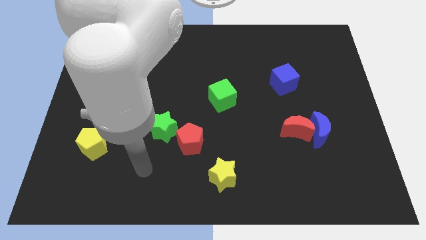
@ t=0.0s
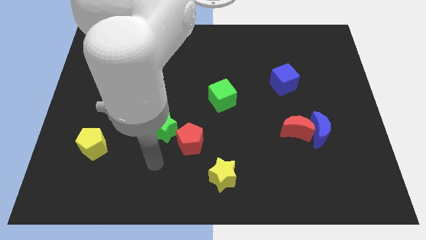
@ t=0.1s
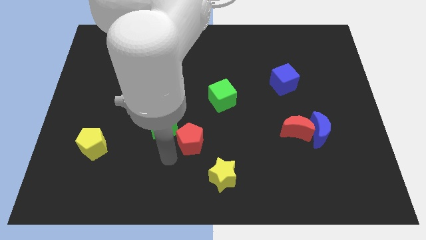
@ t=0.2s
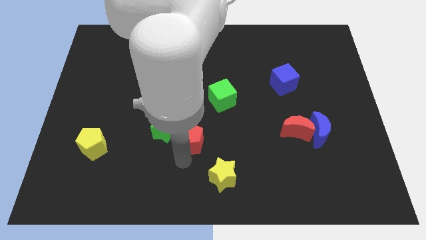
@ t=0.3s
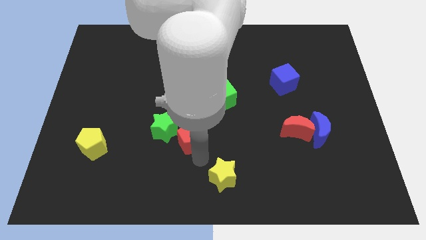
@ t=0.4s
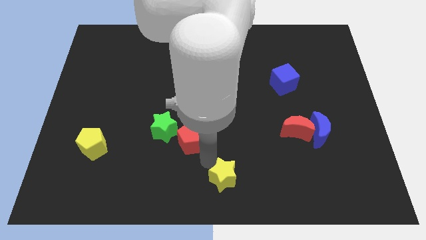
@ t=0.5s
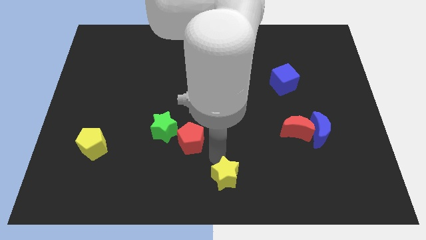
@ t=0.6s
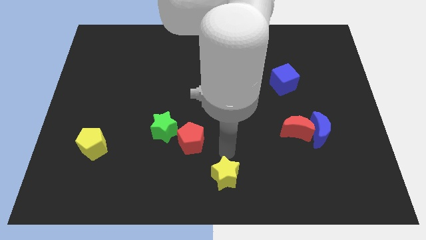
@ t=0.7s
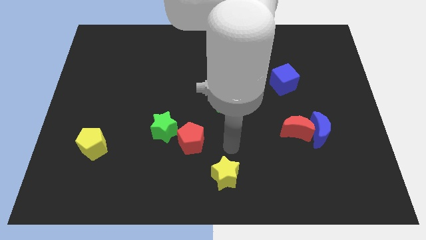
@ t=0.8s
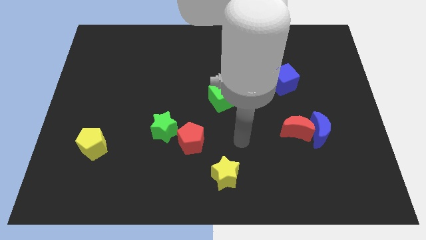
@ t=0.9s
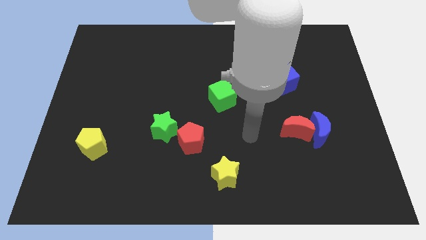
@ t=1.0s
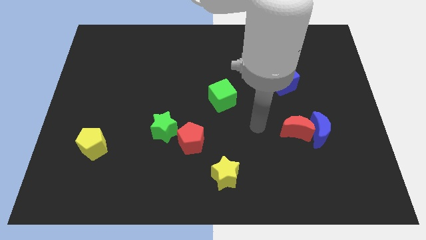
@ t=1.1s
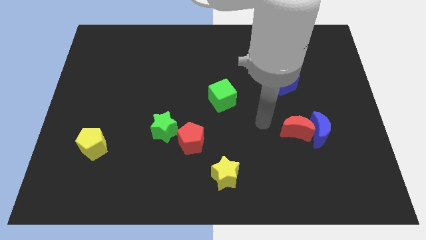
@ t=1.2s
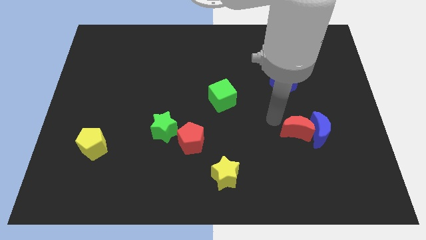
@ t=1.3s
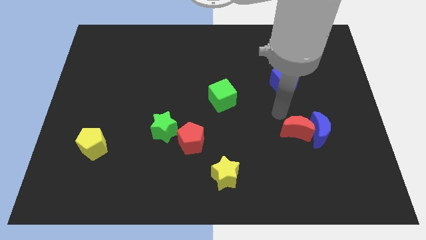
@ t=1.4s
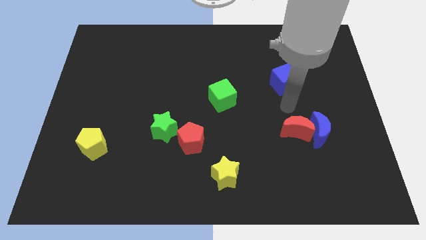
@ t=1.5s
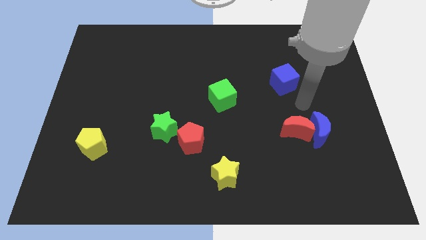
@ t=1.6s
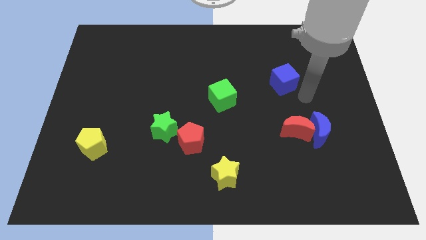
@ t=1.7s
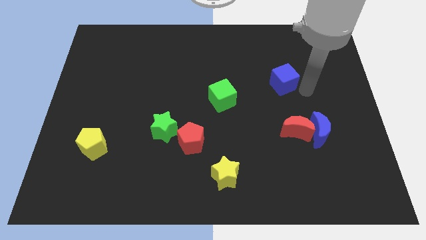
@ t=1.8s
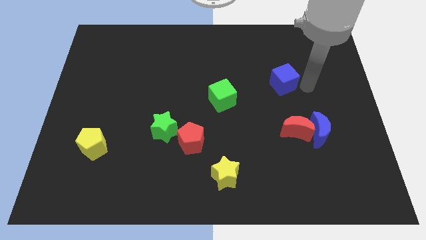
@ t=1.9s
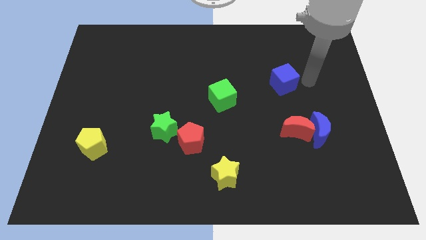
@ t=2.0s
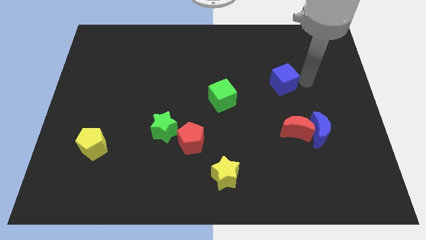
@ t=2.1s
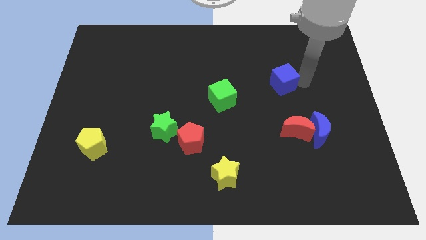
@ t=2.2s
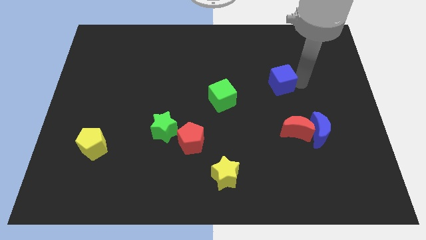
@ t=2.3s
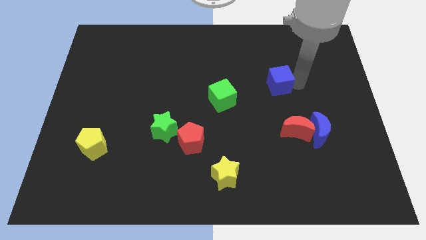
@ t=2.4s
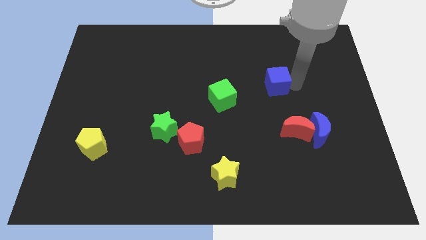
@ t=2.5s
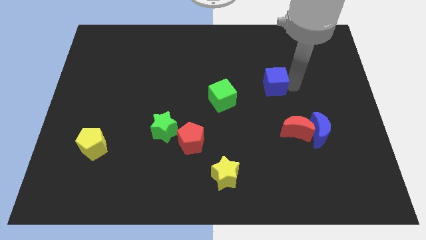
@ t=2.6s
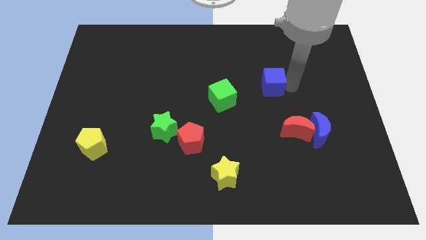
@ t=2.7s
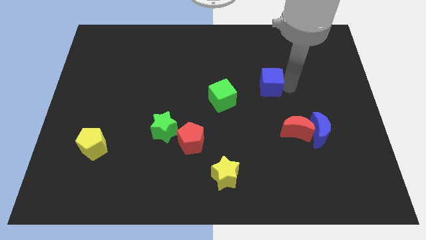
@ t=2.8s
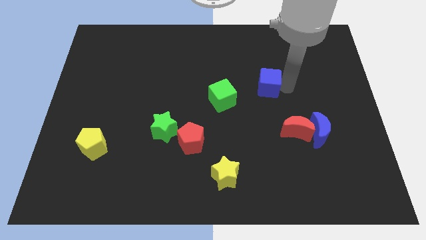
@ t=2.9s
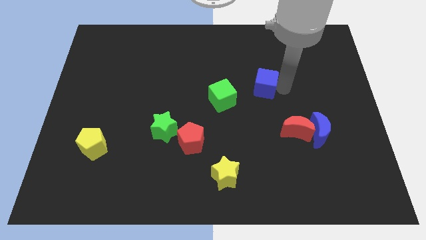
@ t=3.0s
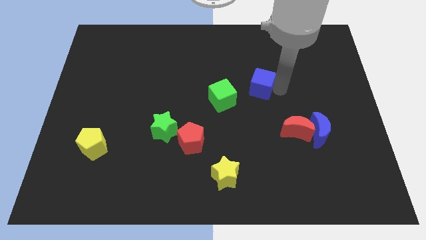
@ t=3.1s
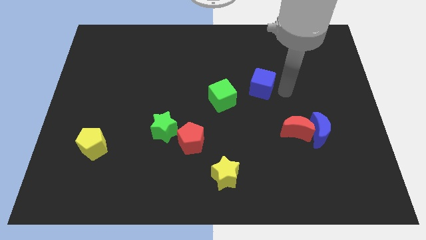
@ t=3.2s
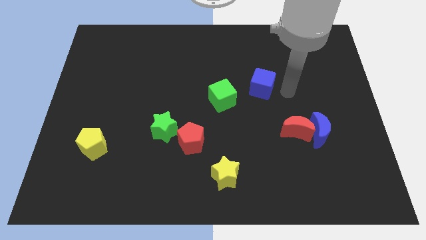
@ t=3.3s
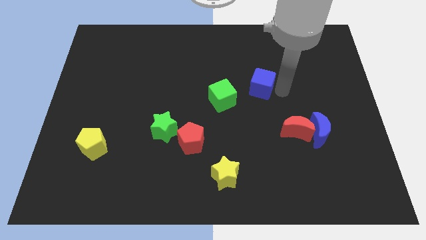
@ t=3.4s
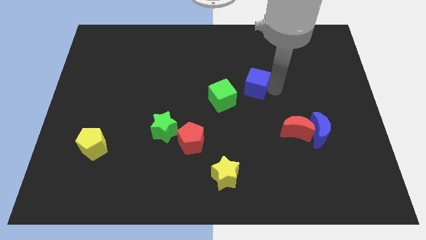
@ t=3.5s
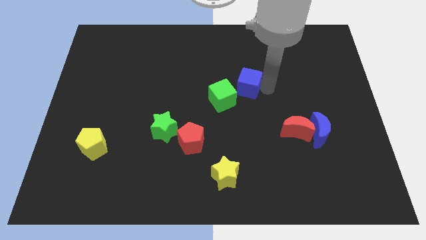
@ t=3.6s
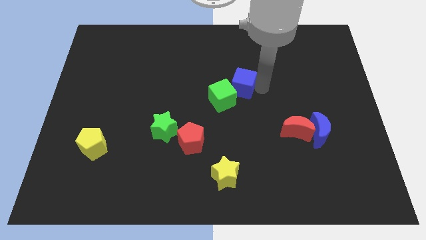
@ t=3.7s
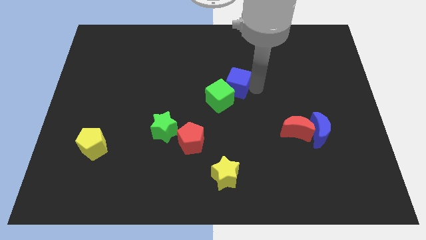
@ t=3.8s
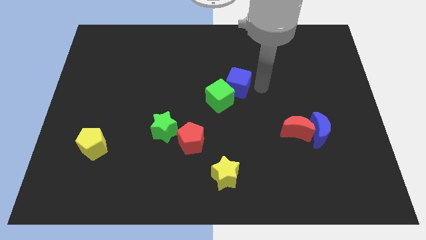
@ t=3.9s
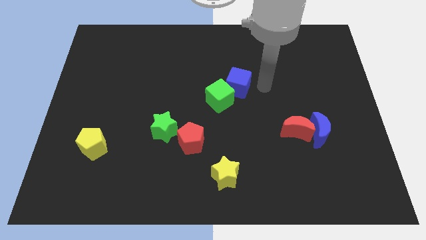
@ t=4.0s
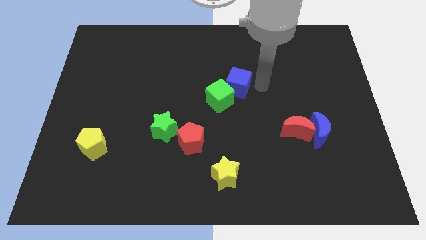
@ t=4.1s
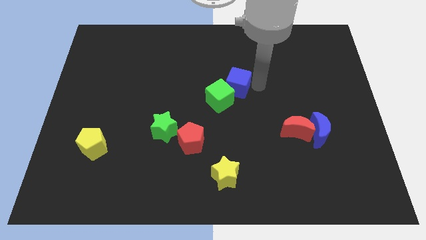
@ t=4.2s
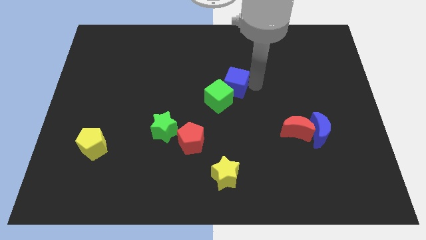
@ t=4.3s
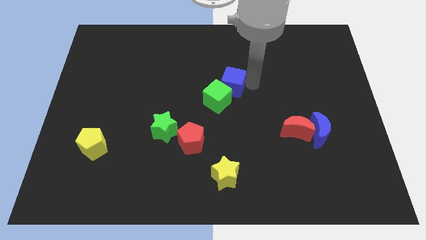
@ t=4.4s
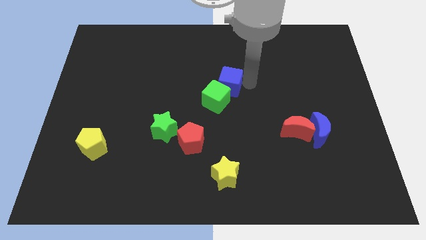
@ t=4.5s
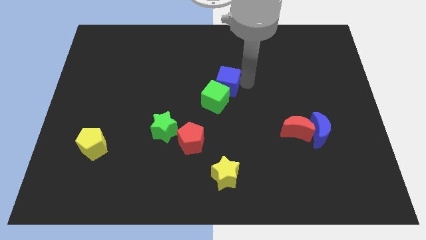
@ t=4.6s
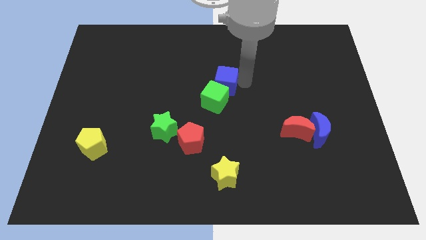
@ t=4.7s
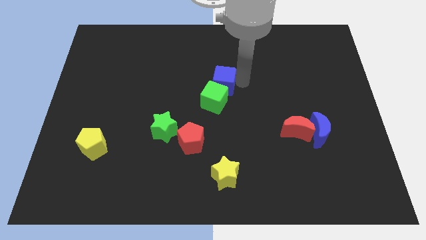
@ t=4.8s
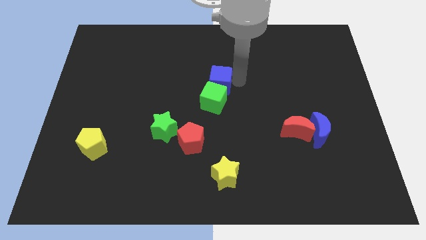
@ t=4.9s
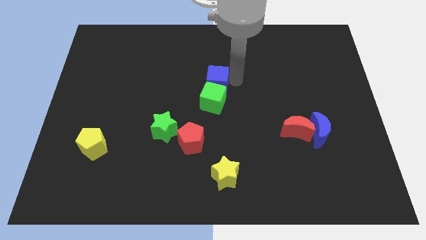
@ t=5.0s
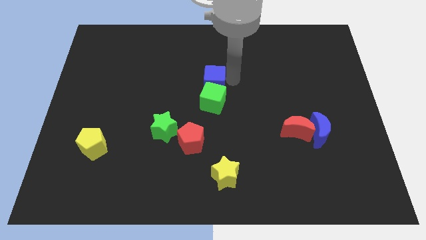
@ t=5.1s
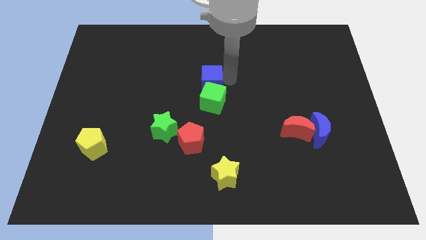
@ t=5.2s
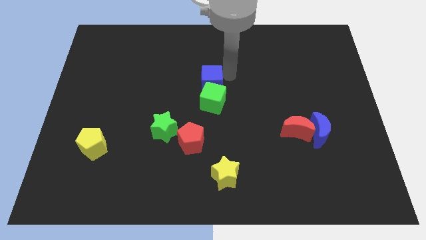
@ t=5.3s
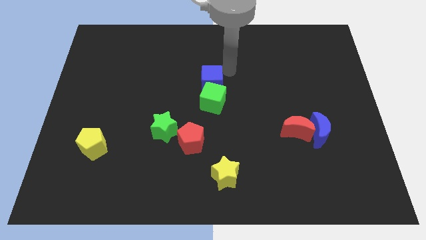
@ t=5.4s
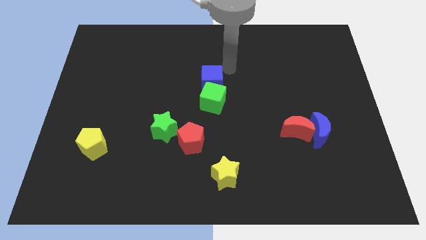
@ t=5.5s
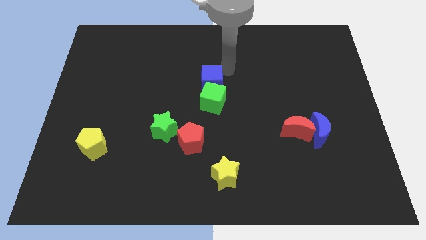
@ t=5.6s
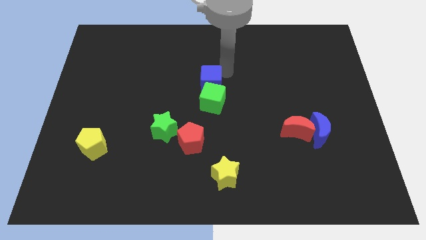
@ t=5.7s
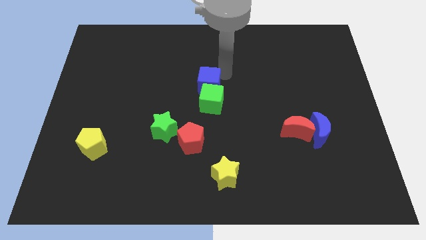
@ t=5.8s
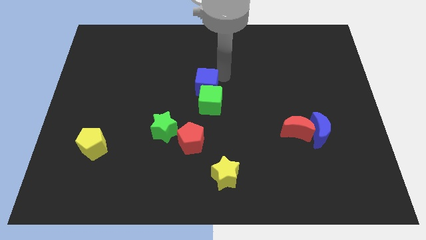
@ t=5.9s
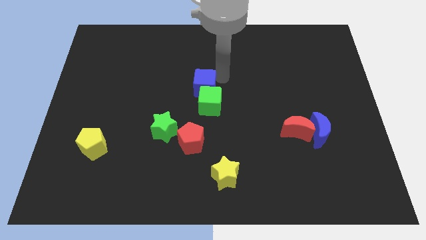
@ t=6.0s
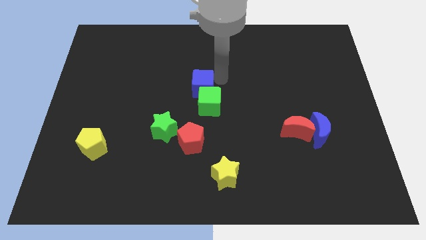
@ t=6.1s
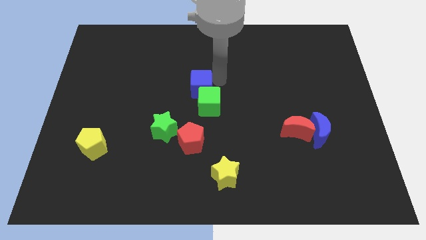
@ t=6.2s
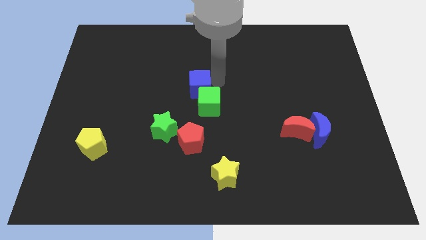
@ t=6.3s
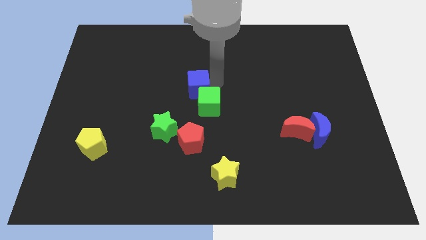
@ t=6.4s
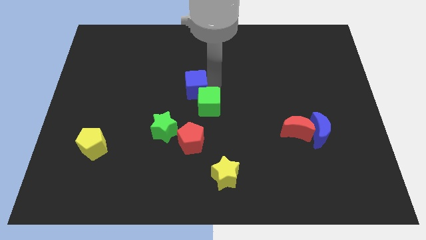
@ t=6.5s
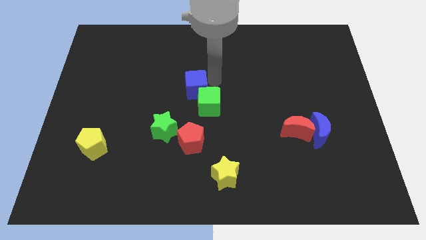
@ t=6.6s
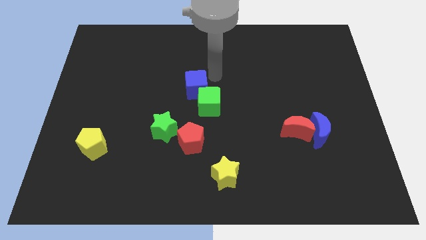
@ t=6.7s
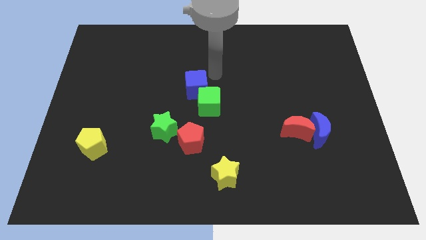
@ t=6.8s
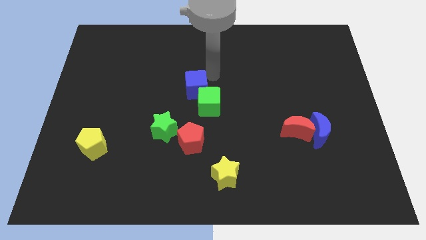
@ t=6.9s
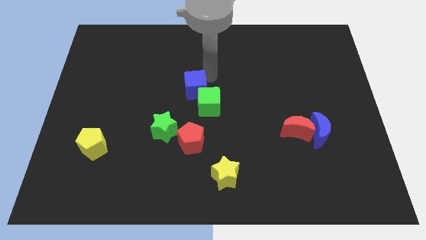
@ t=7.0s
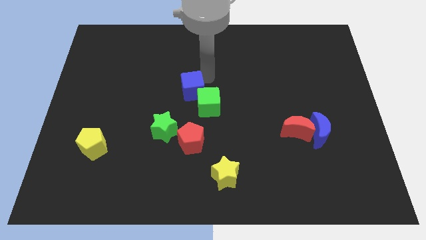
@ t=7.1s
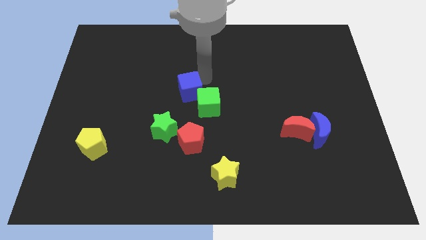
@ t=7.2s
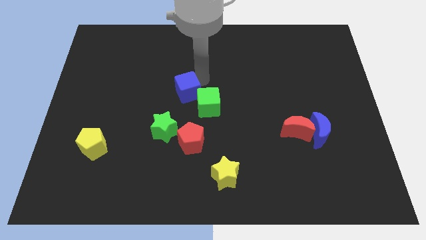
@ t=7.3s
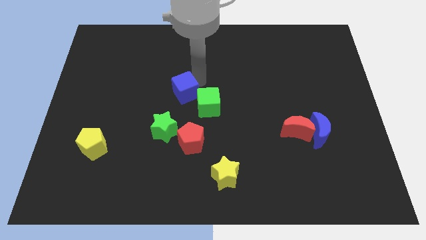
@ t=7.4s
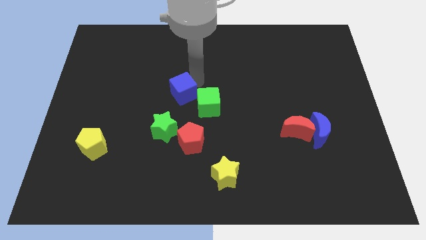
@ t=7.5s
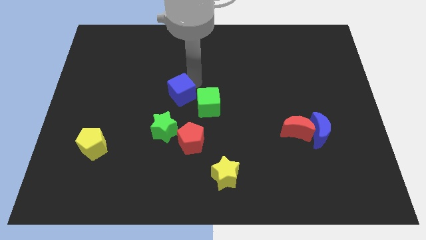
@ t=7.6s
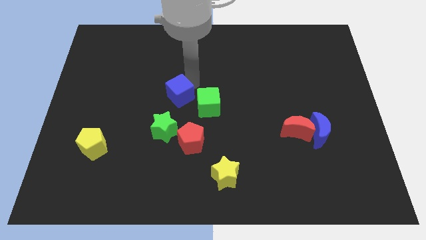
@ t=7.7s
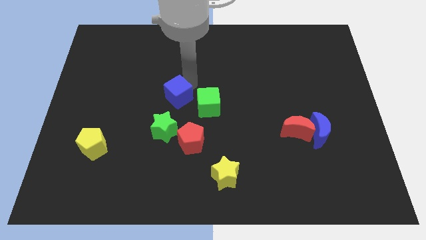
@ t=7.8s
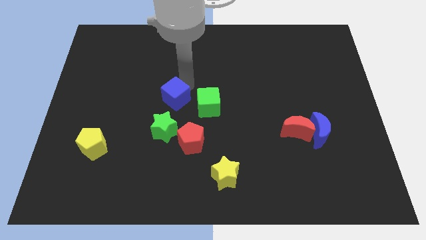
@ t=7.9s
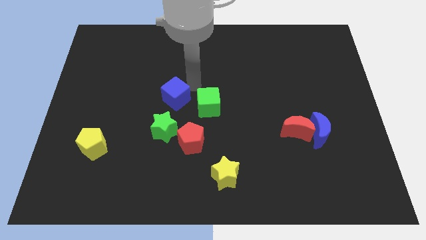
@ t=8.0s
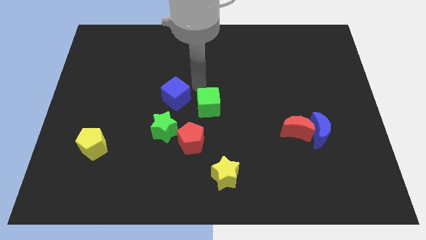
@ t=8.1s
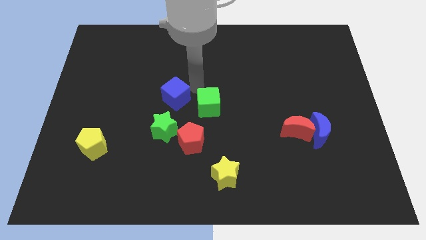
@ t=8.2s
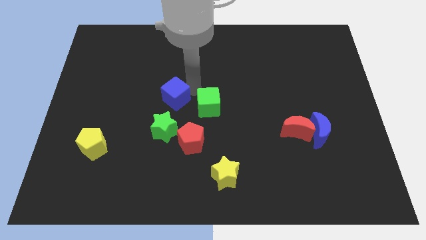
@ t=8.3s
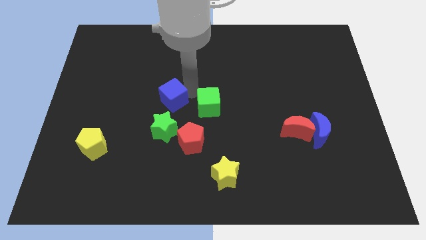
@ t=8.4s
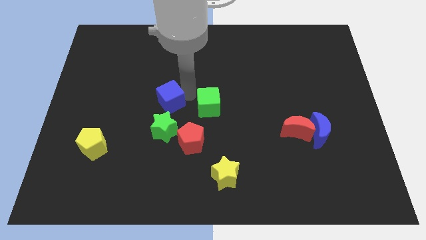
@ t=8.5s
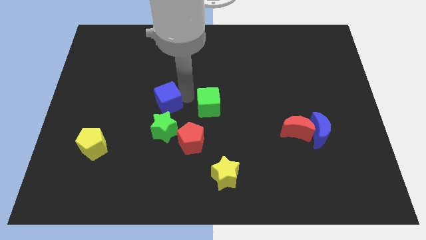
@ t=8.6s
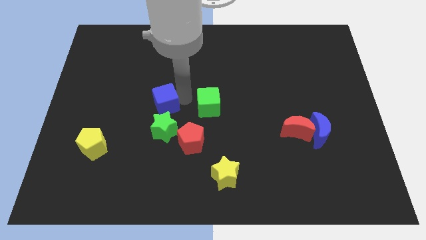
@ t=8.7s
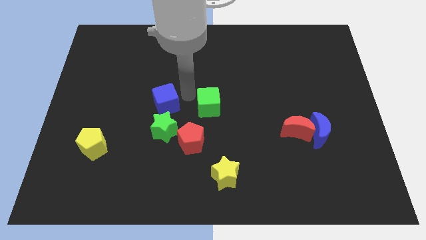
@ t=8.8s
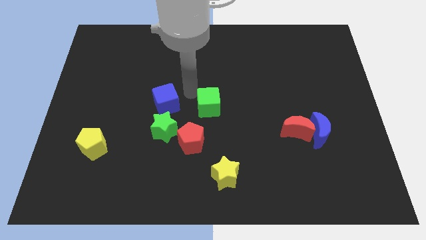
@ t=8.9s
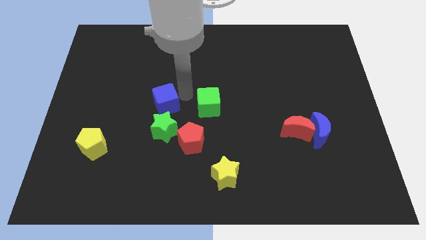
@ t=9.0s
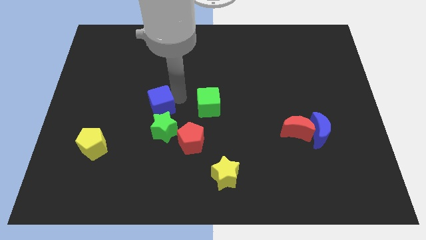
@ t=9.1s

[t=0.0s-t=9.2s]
push the blue cube to the top left of the green star
